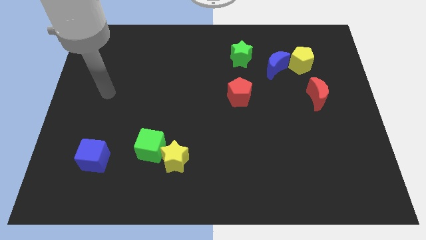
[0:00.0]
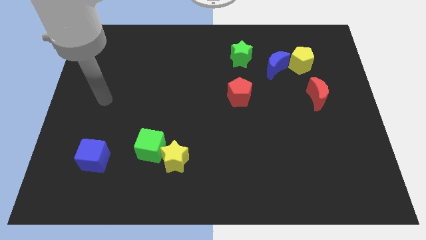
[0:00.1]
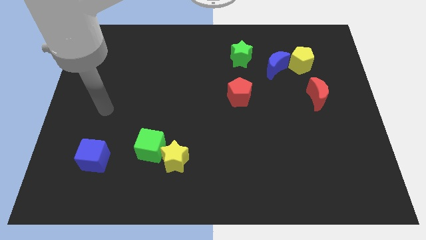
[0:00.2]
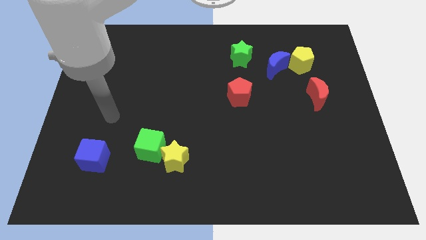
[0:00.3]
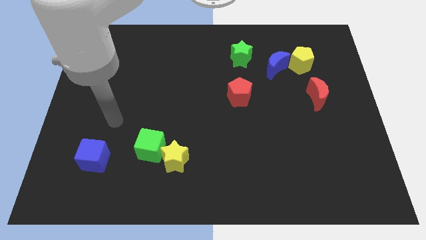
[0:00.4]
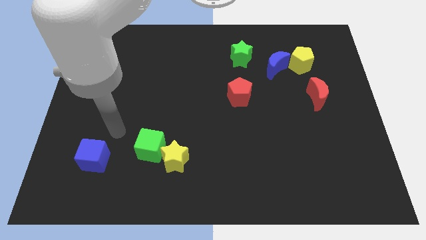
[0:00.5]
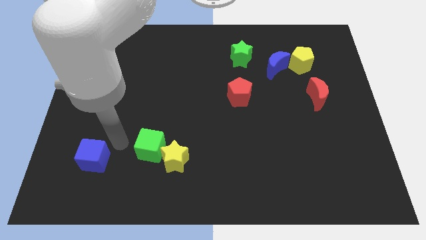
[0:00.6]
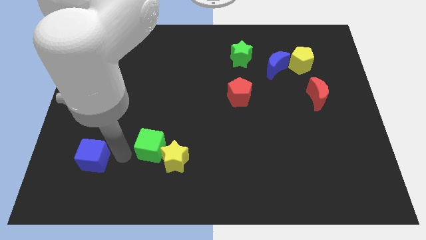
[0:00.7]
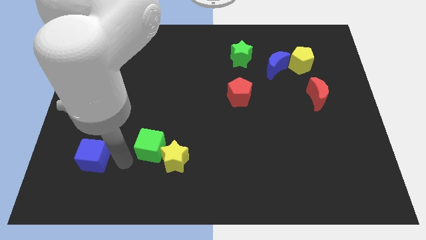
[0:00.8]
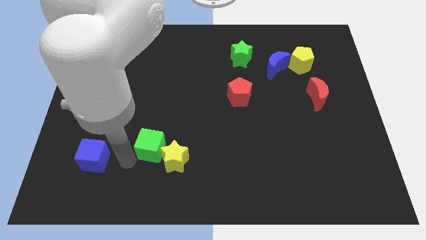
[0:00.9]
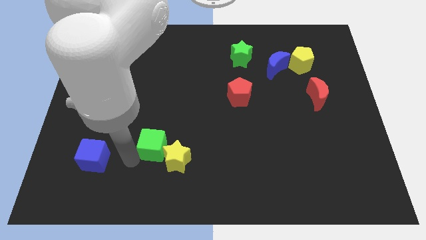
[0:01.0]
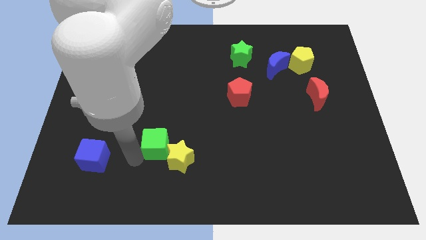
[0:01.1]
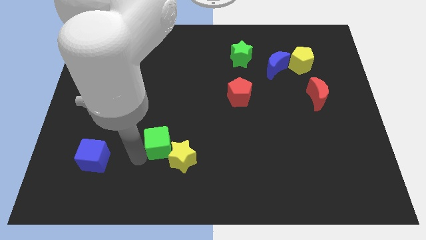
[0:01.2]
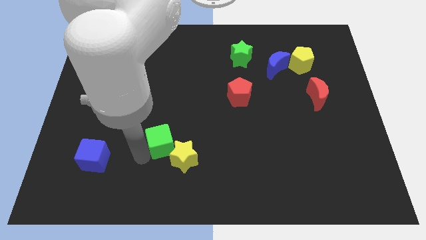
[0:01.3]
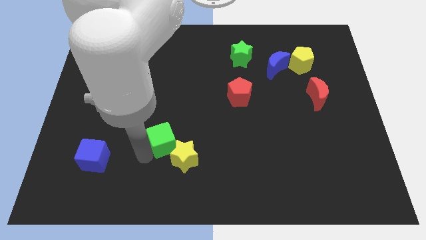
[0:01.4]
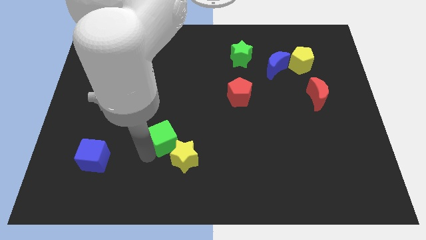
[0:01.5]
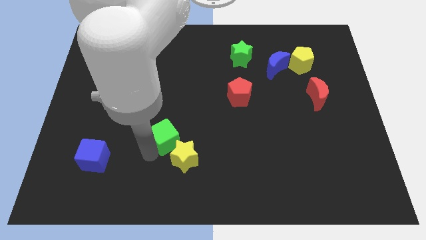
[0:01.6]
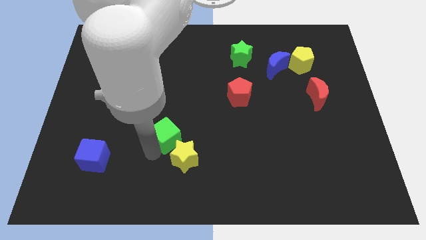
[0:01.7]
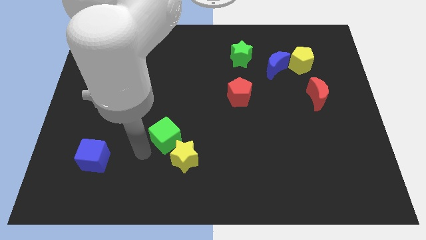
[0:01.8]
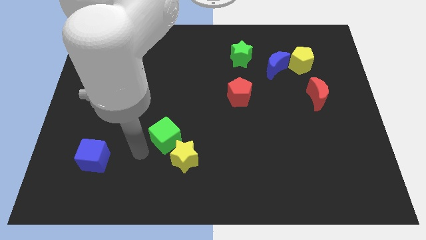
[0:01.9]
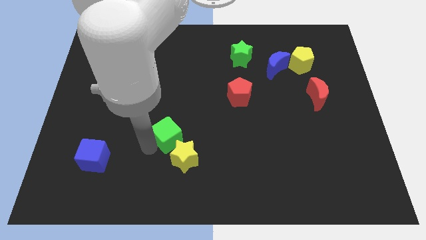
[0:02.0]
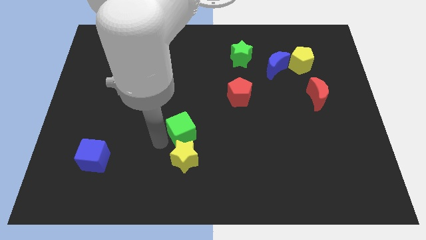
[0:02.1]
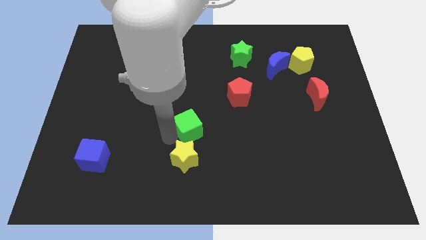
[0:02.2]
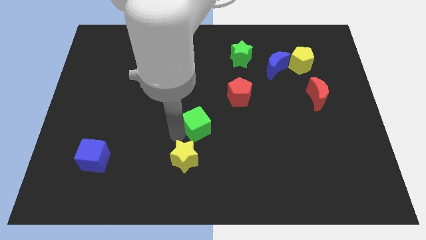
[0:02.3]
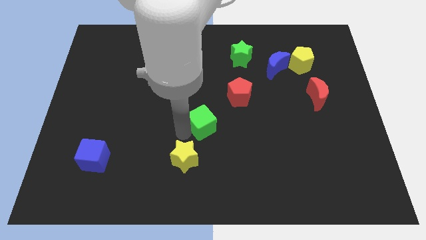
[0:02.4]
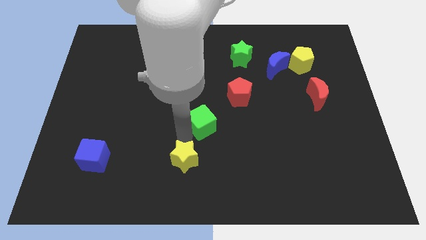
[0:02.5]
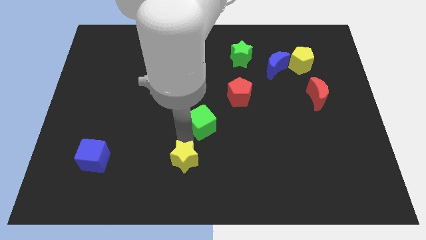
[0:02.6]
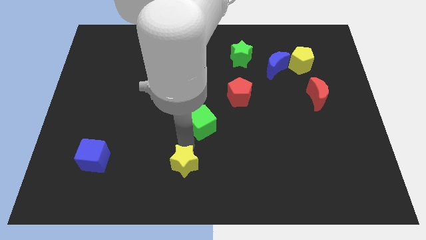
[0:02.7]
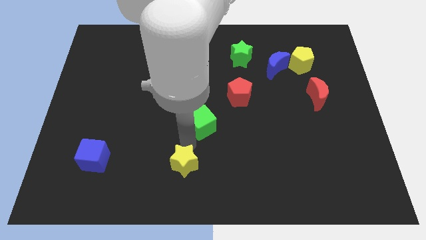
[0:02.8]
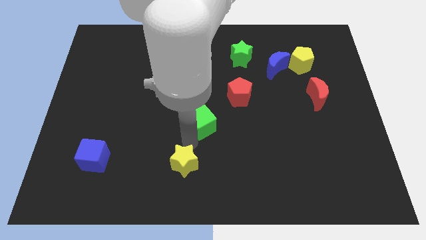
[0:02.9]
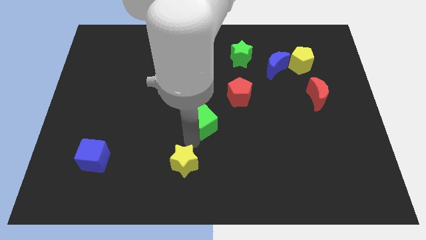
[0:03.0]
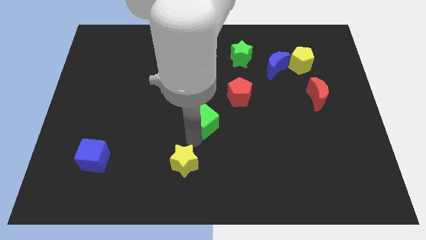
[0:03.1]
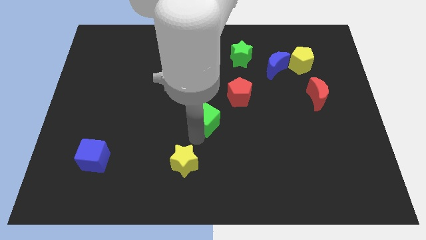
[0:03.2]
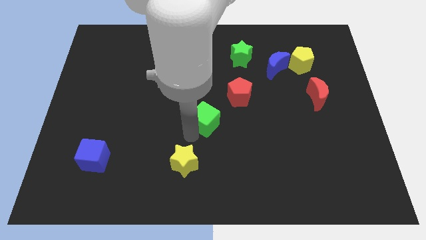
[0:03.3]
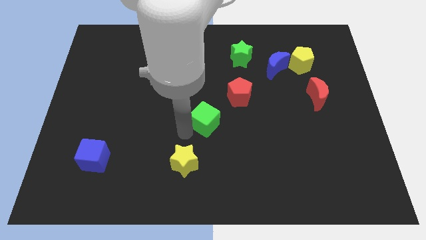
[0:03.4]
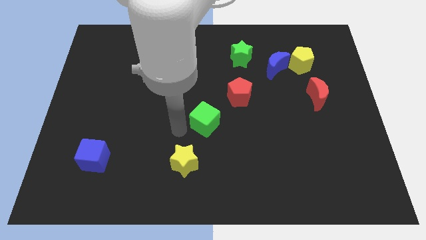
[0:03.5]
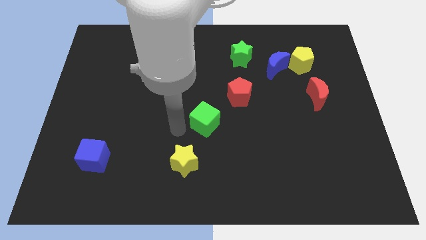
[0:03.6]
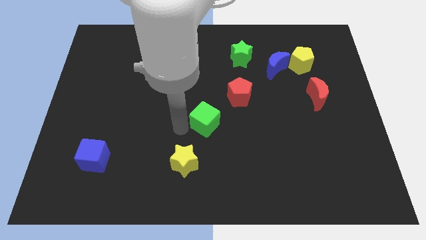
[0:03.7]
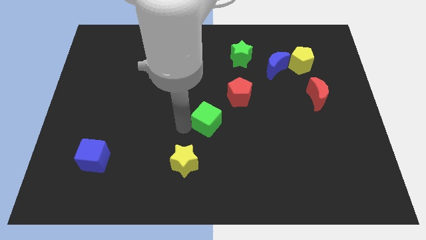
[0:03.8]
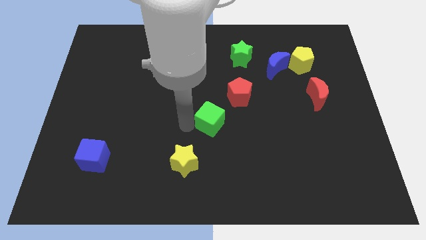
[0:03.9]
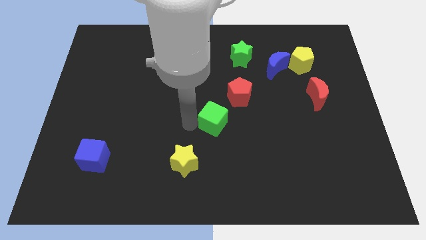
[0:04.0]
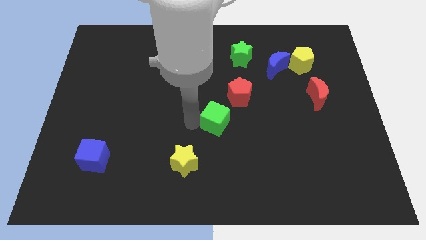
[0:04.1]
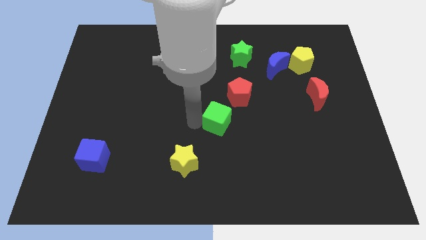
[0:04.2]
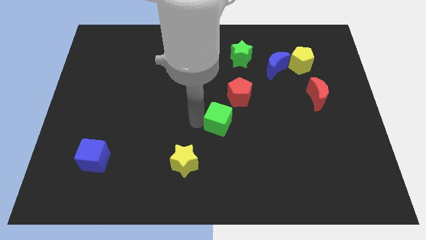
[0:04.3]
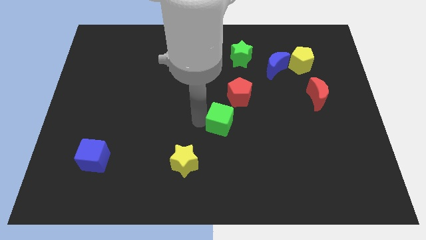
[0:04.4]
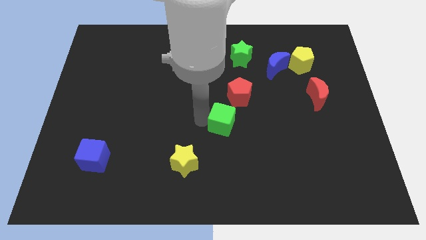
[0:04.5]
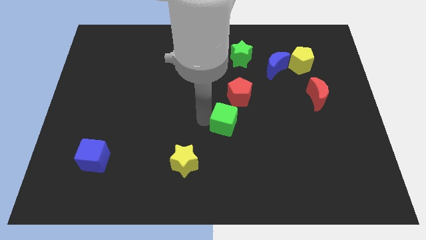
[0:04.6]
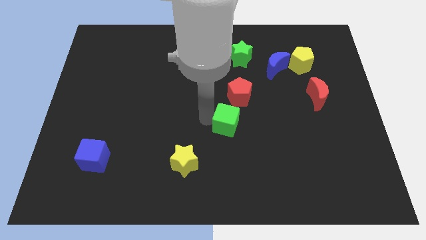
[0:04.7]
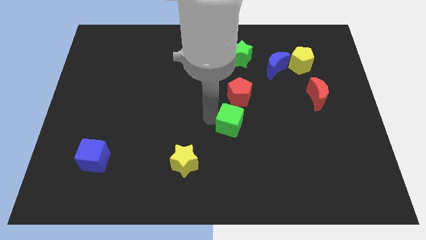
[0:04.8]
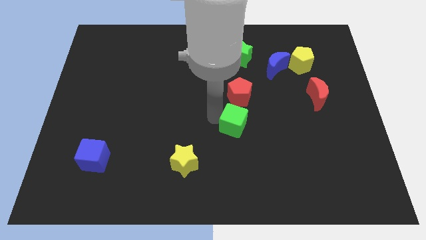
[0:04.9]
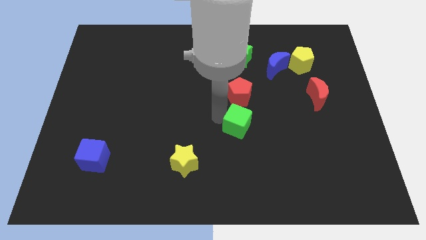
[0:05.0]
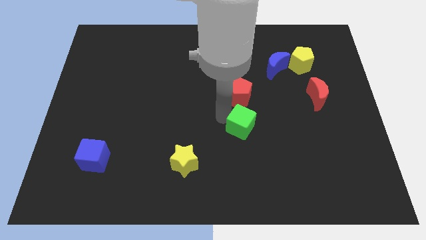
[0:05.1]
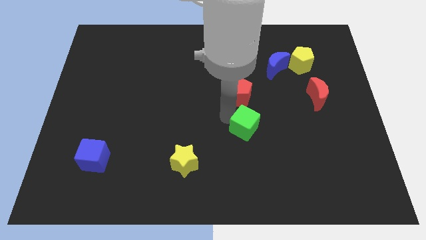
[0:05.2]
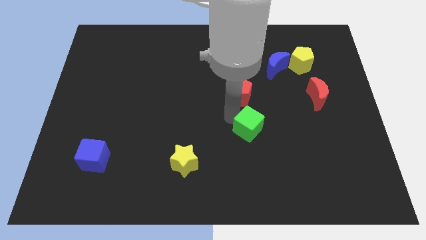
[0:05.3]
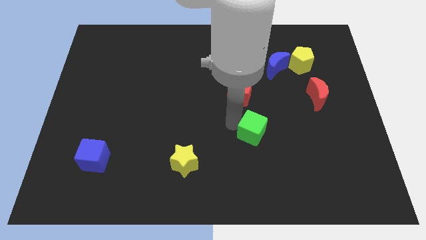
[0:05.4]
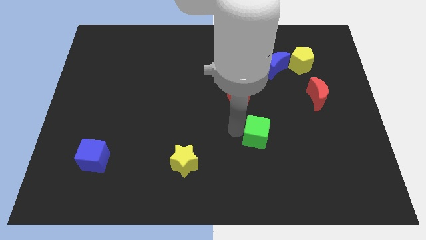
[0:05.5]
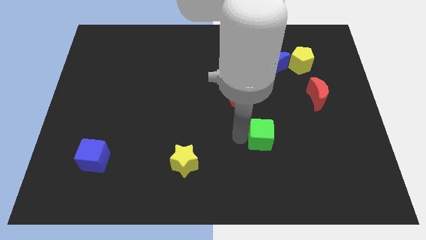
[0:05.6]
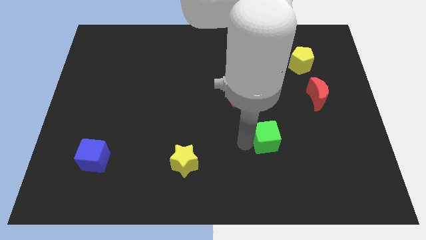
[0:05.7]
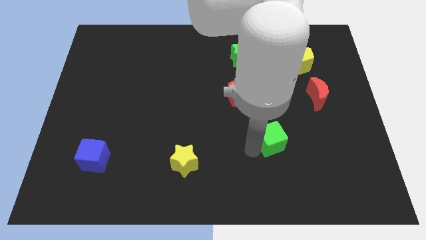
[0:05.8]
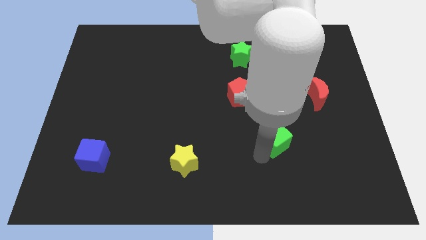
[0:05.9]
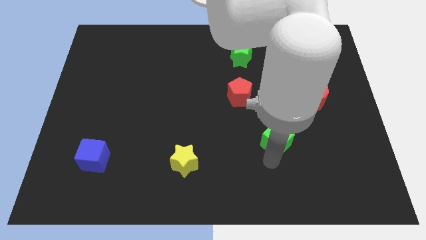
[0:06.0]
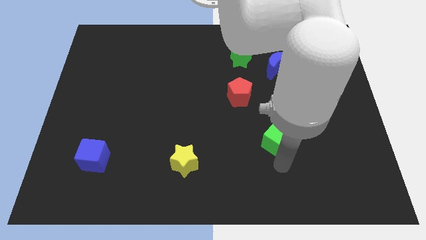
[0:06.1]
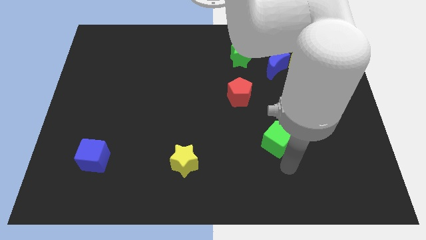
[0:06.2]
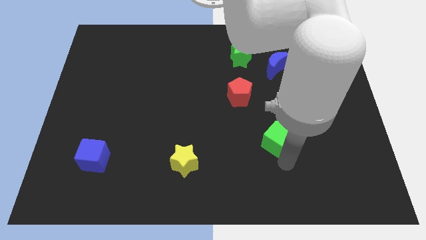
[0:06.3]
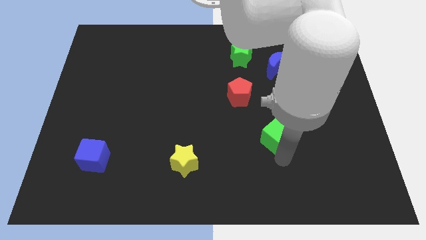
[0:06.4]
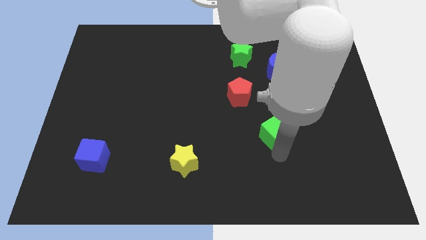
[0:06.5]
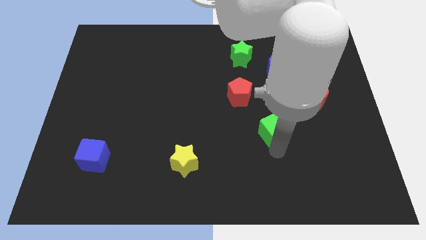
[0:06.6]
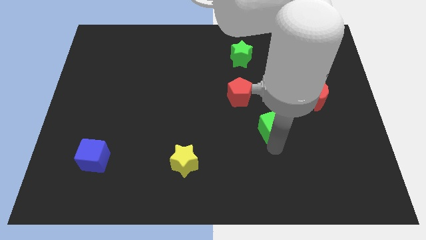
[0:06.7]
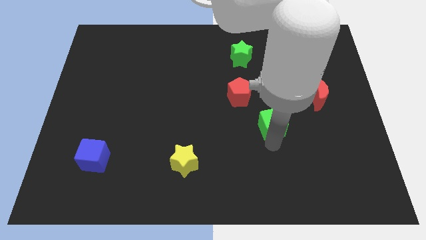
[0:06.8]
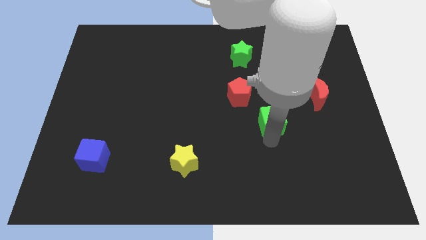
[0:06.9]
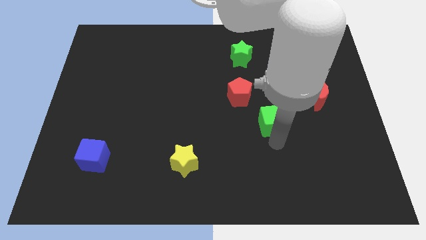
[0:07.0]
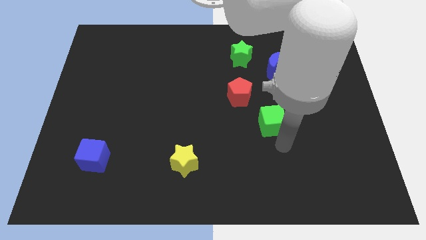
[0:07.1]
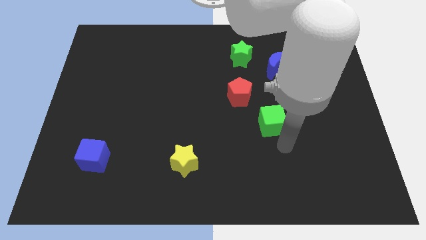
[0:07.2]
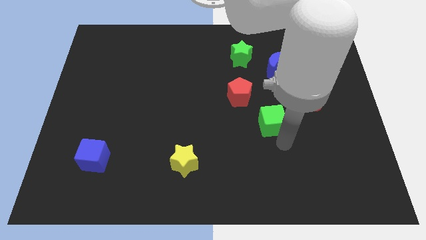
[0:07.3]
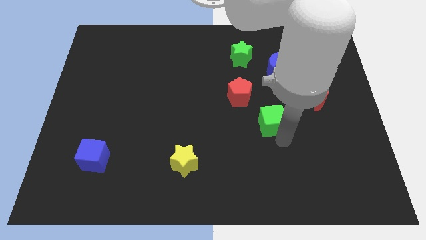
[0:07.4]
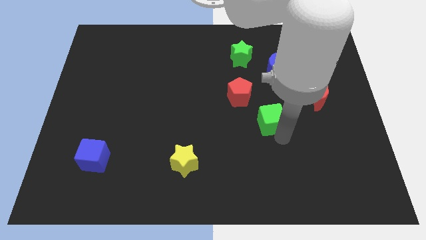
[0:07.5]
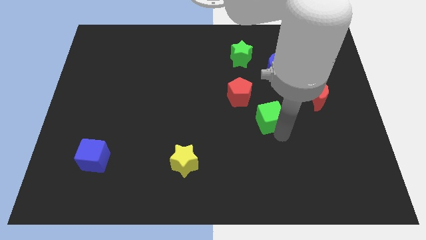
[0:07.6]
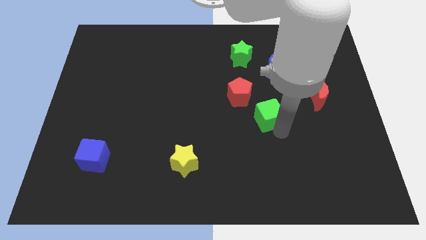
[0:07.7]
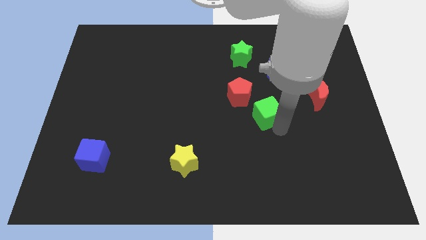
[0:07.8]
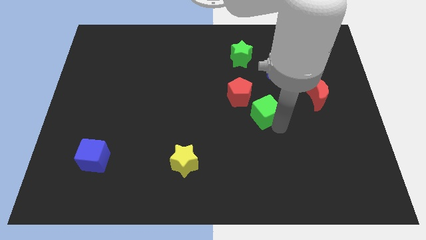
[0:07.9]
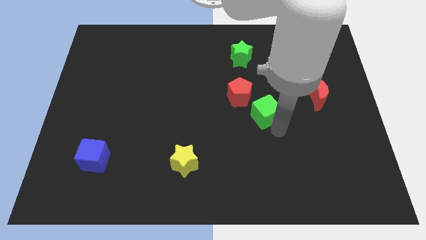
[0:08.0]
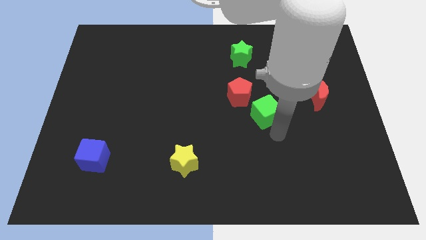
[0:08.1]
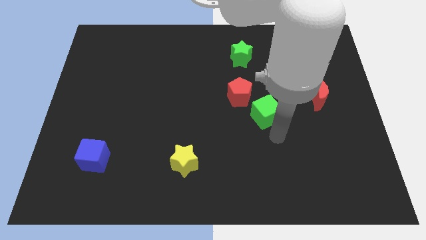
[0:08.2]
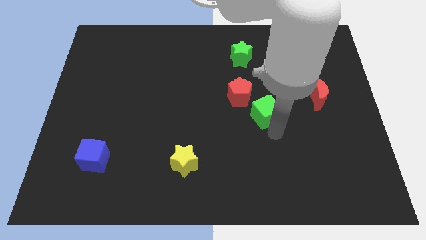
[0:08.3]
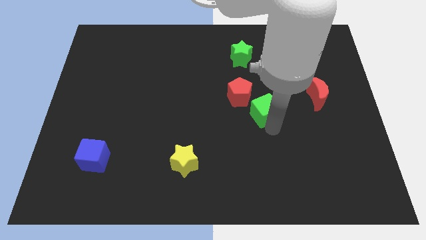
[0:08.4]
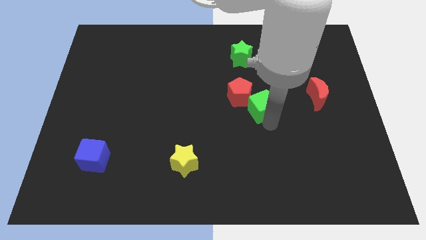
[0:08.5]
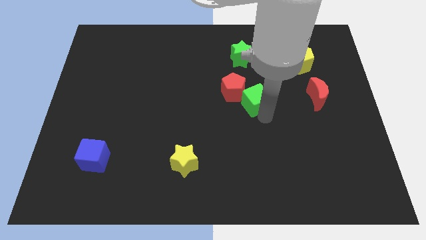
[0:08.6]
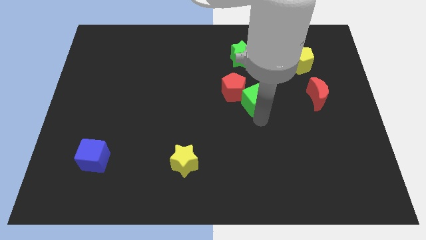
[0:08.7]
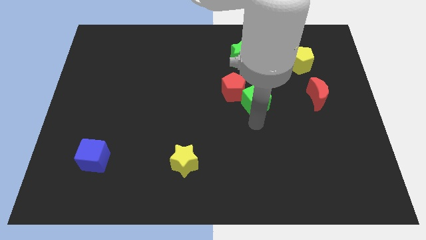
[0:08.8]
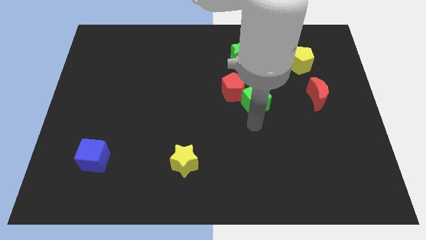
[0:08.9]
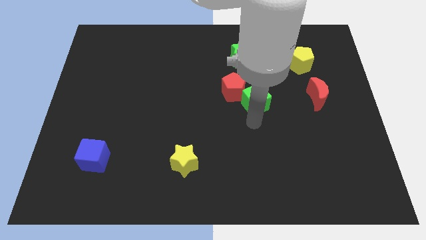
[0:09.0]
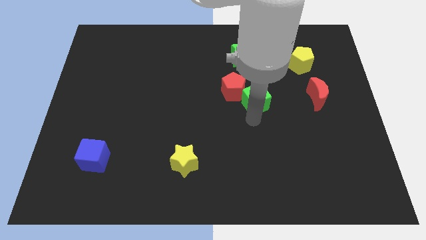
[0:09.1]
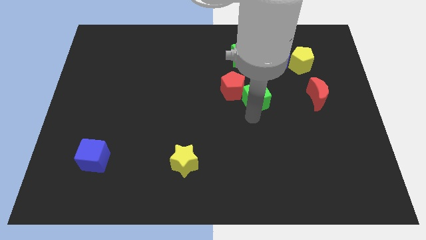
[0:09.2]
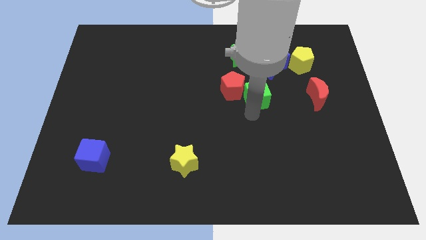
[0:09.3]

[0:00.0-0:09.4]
push the green cube to the bottom left side of the blue moon
